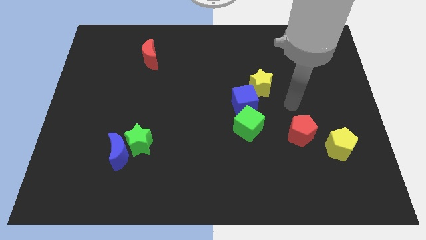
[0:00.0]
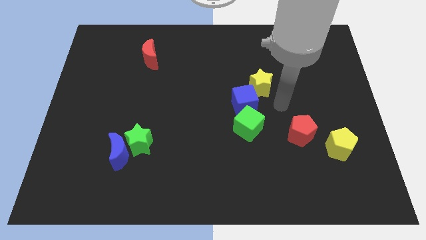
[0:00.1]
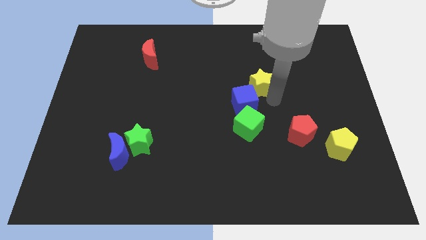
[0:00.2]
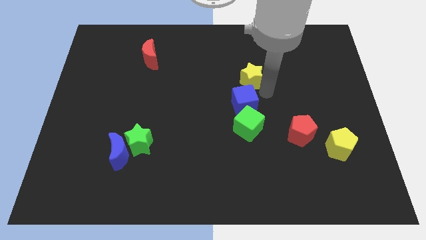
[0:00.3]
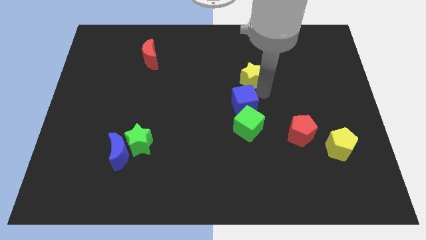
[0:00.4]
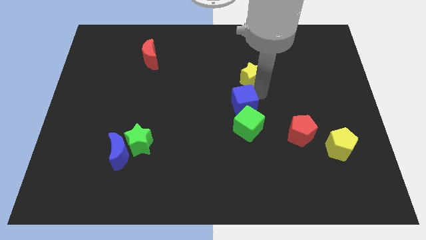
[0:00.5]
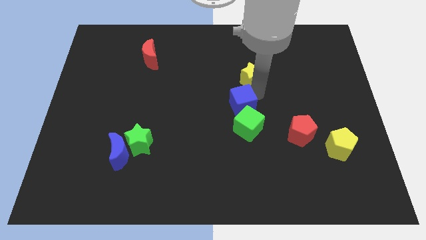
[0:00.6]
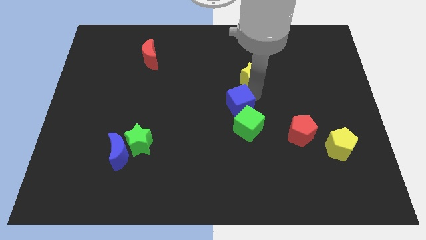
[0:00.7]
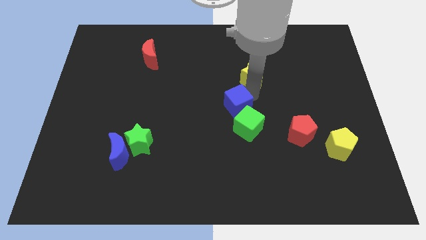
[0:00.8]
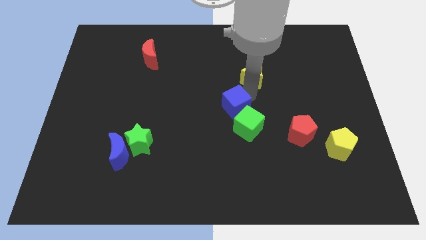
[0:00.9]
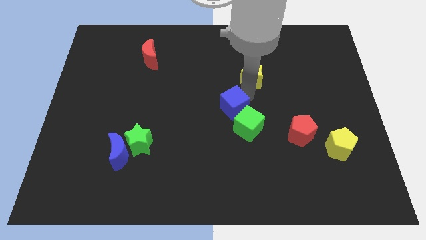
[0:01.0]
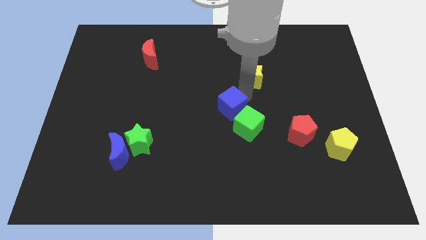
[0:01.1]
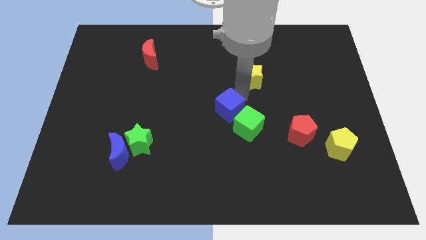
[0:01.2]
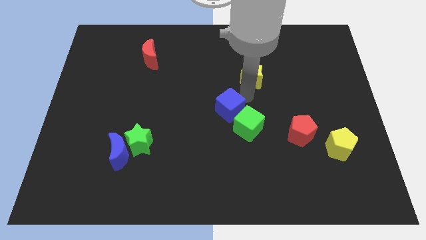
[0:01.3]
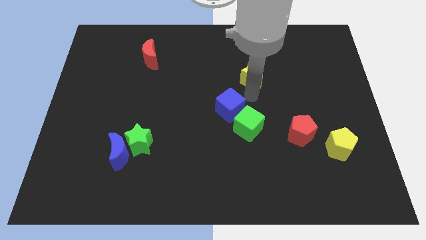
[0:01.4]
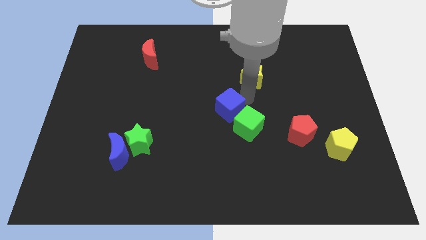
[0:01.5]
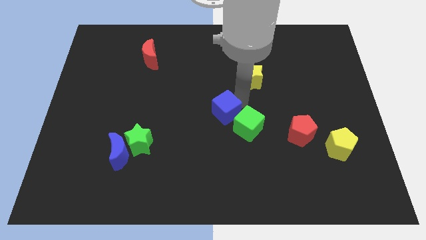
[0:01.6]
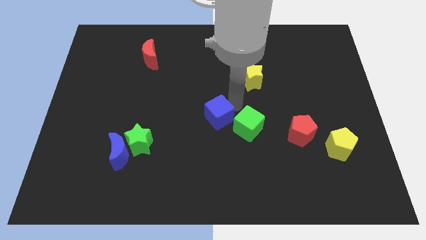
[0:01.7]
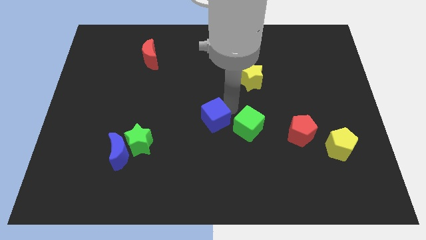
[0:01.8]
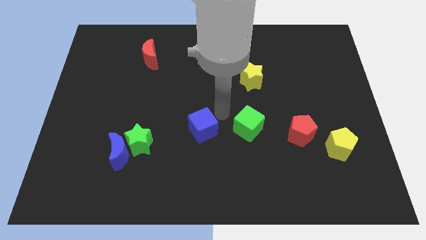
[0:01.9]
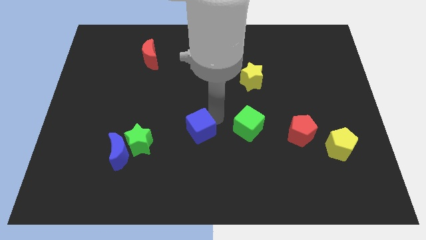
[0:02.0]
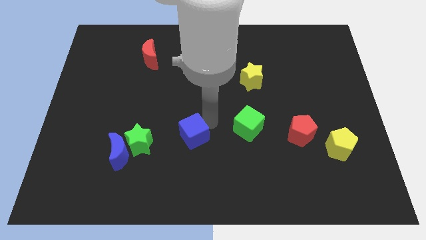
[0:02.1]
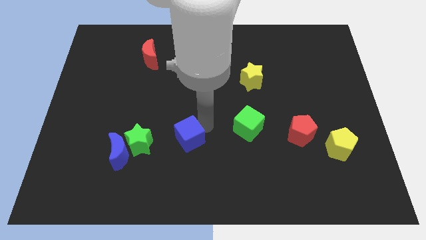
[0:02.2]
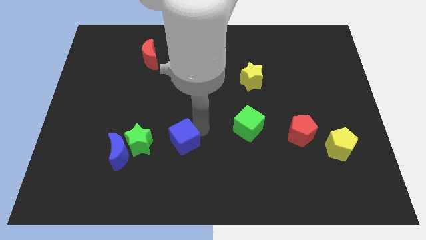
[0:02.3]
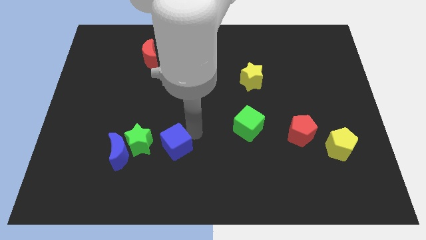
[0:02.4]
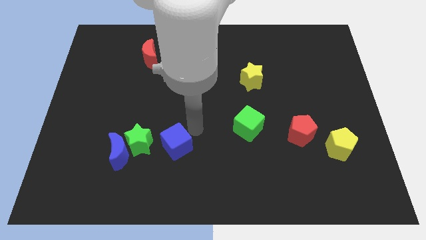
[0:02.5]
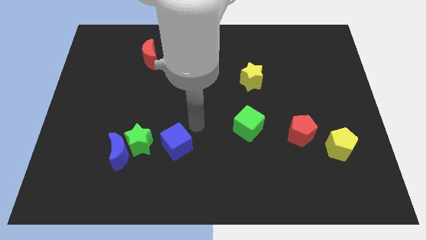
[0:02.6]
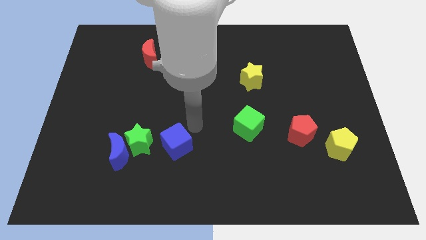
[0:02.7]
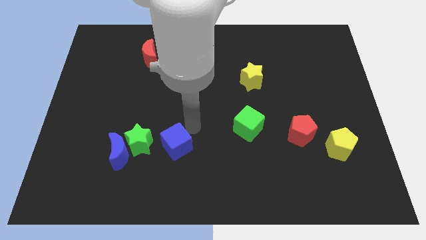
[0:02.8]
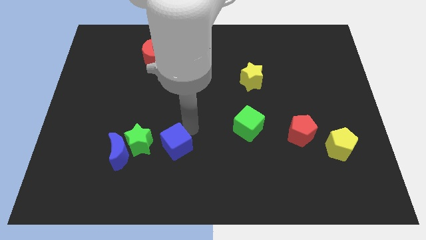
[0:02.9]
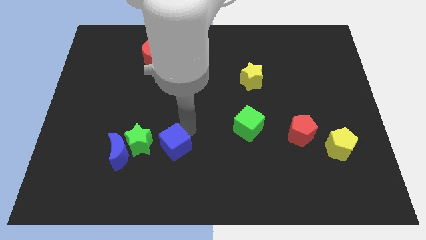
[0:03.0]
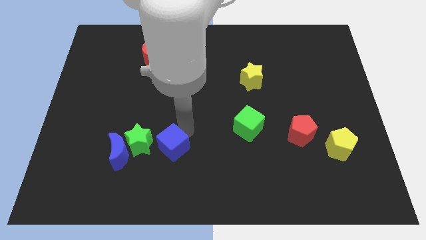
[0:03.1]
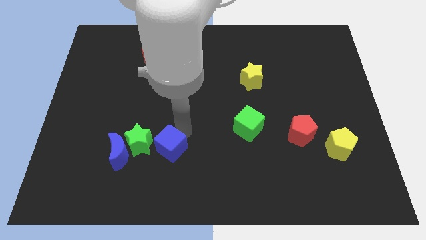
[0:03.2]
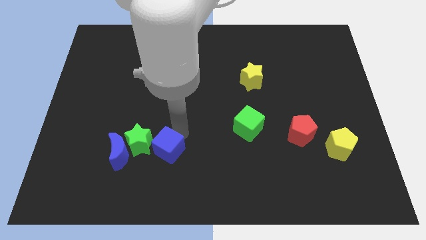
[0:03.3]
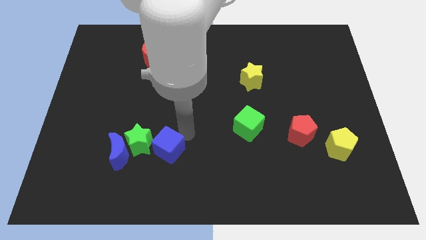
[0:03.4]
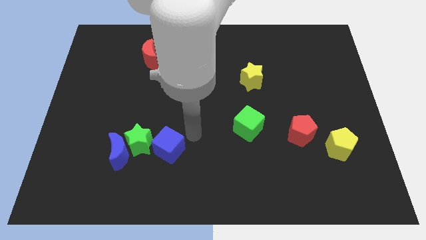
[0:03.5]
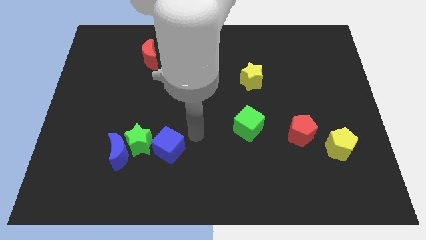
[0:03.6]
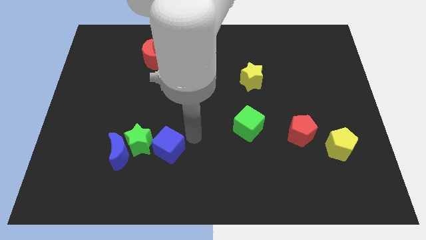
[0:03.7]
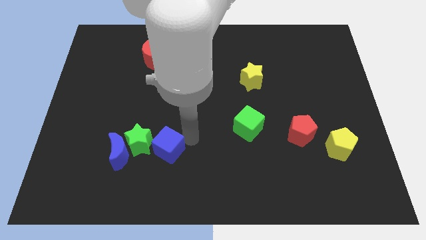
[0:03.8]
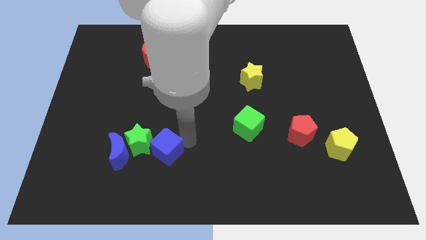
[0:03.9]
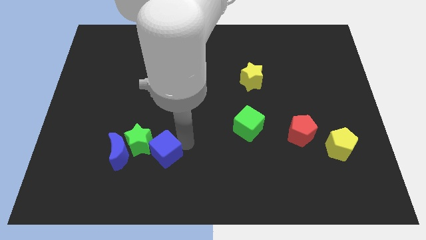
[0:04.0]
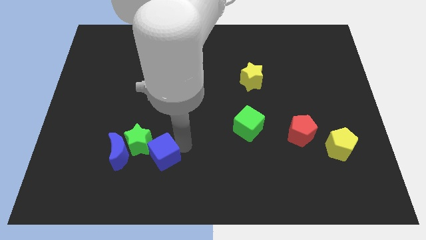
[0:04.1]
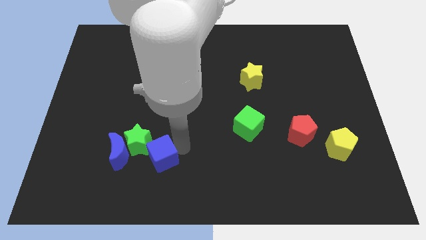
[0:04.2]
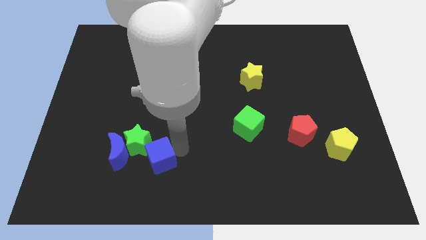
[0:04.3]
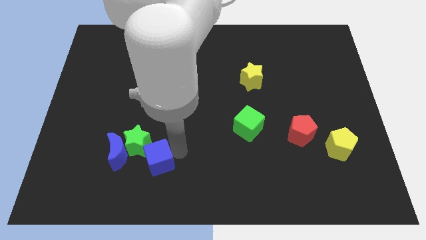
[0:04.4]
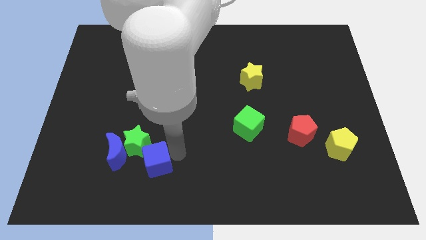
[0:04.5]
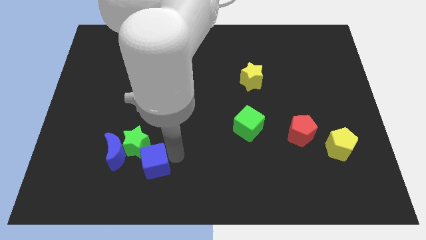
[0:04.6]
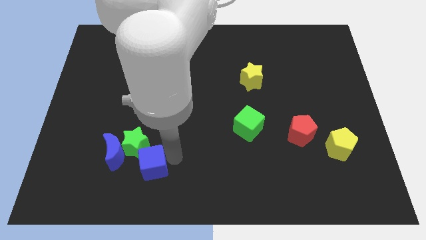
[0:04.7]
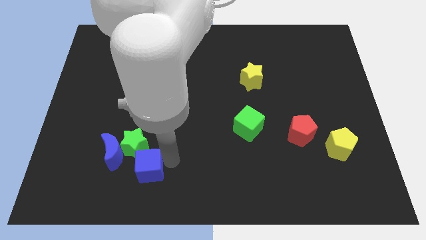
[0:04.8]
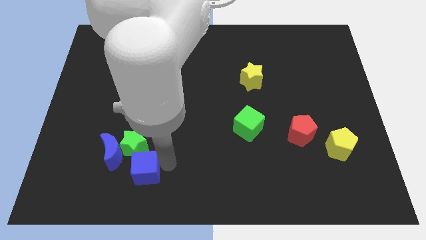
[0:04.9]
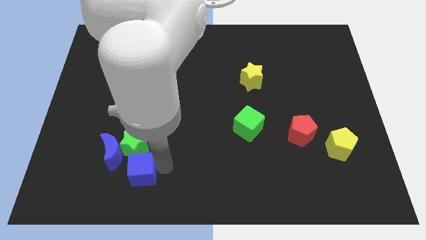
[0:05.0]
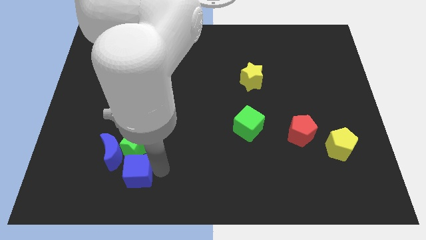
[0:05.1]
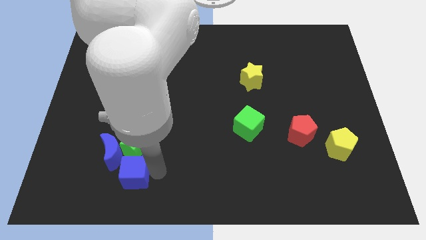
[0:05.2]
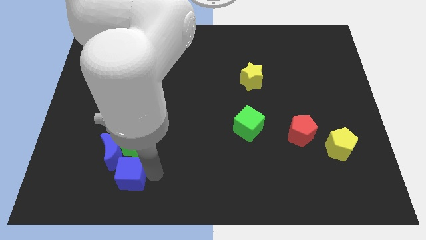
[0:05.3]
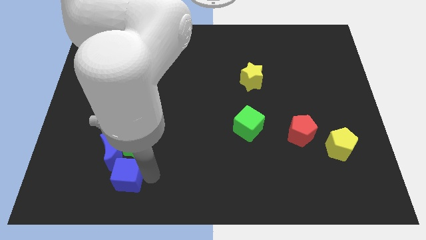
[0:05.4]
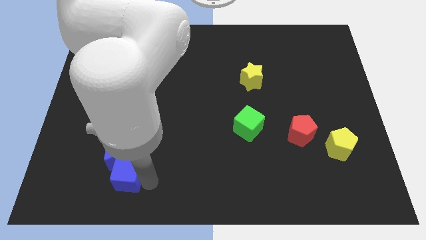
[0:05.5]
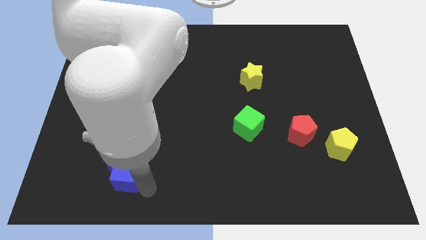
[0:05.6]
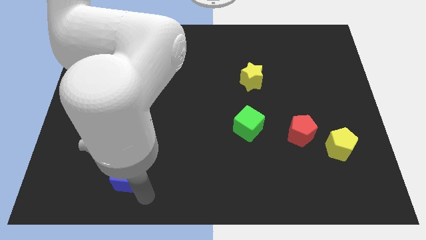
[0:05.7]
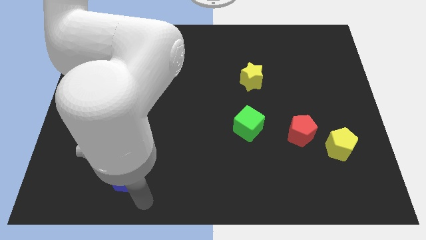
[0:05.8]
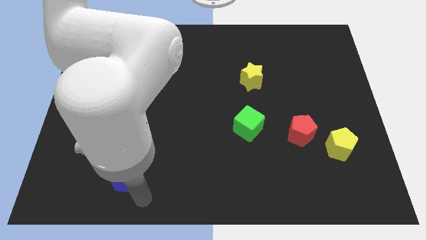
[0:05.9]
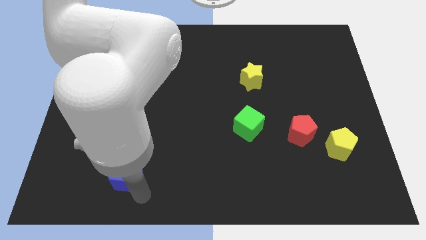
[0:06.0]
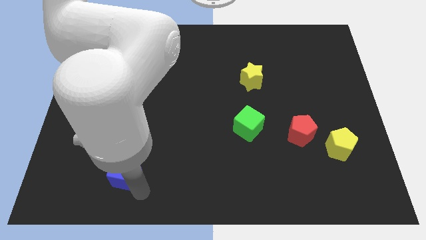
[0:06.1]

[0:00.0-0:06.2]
push the blue cube to the blue moon

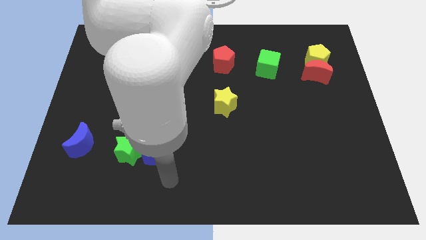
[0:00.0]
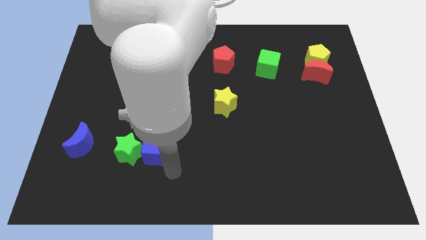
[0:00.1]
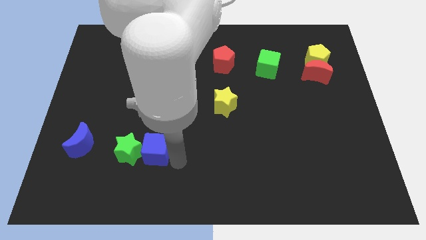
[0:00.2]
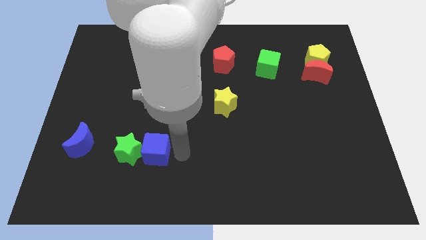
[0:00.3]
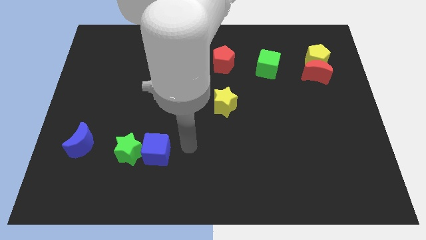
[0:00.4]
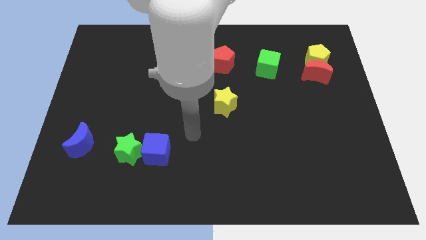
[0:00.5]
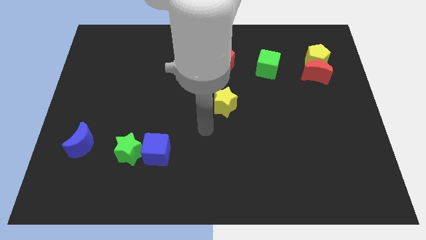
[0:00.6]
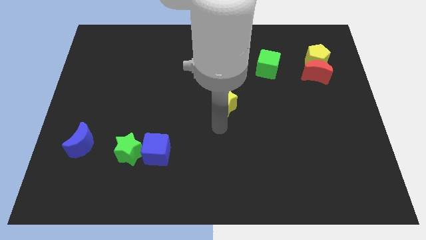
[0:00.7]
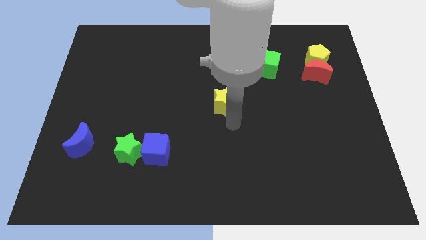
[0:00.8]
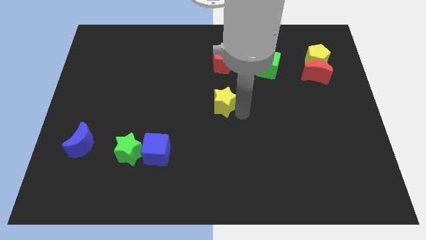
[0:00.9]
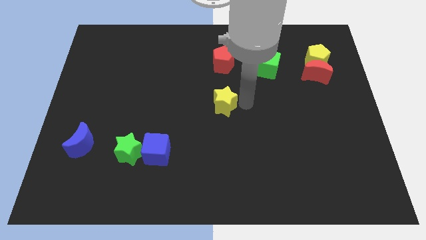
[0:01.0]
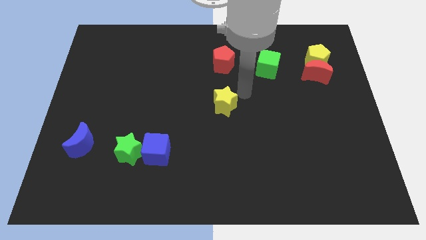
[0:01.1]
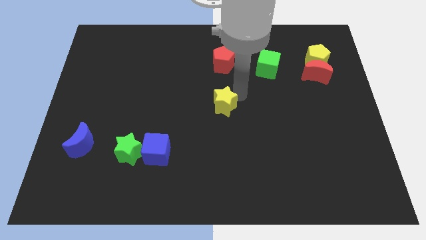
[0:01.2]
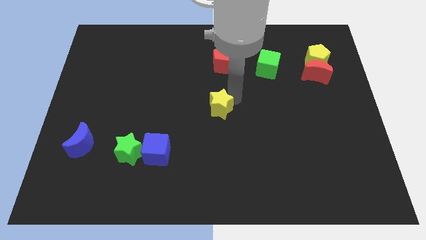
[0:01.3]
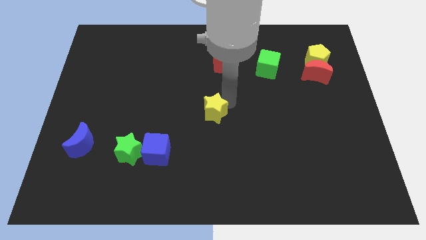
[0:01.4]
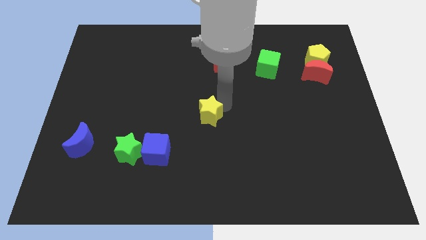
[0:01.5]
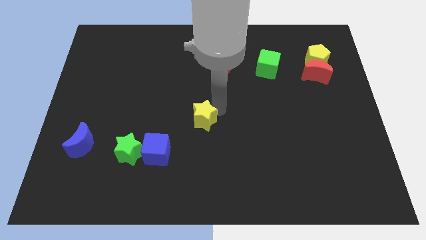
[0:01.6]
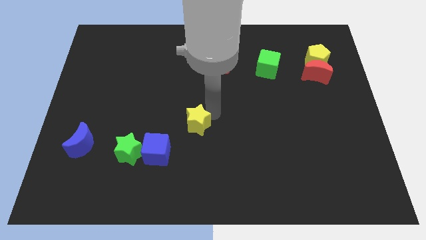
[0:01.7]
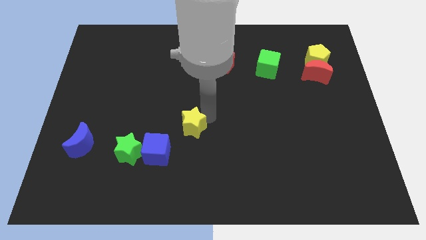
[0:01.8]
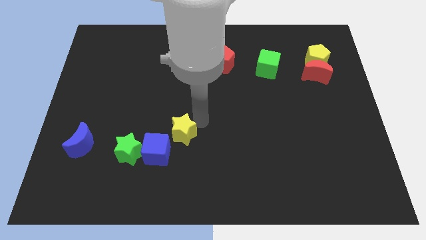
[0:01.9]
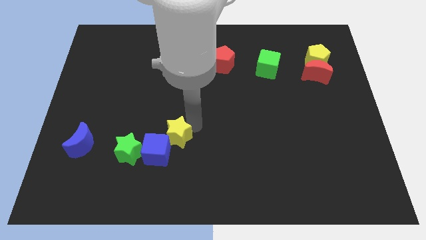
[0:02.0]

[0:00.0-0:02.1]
slide the yellow star close to the blue cube
